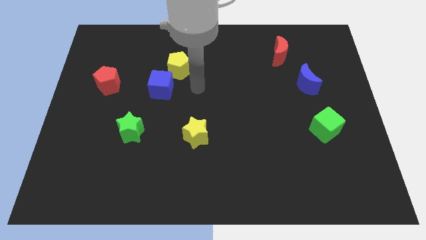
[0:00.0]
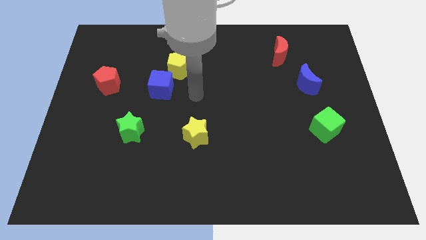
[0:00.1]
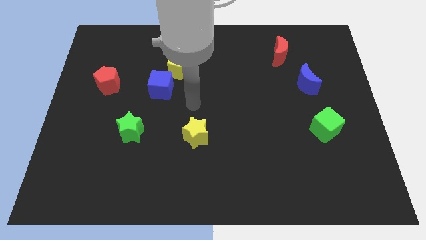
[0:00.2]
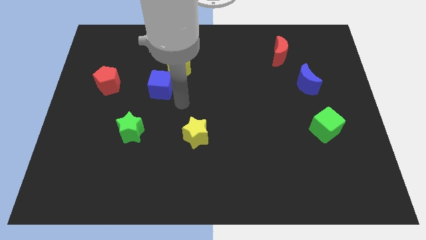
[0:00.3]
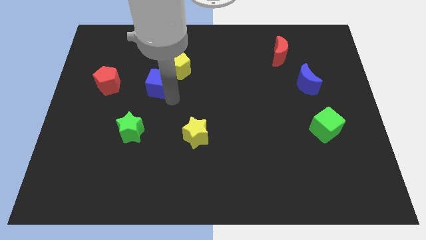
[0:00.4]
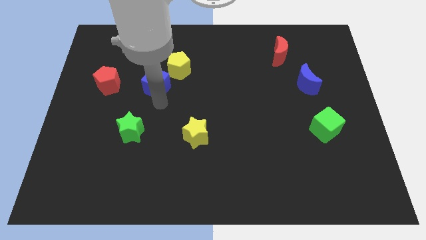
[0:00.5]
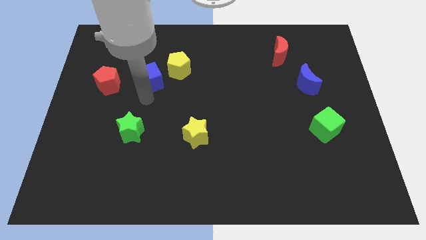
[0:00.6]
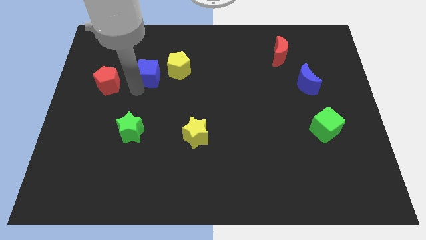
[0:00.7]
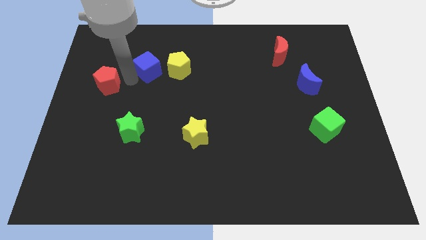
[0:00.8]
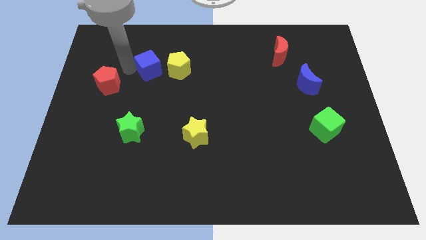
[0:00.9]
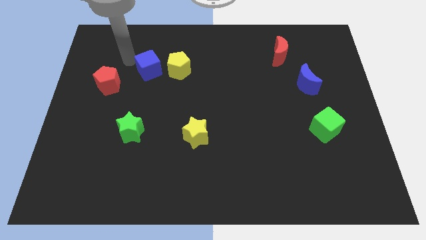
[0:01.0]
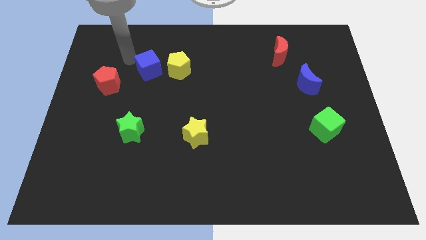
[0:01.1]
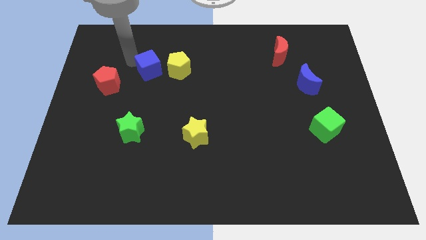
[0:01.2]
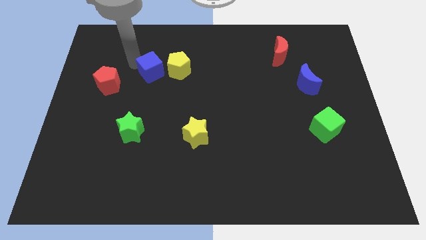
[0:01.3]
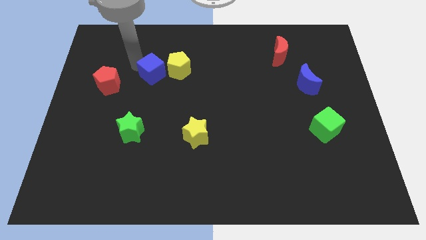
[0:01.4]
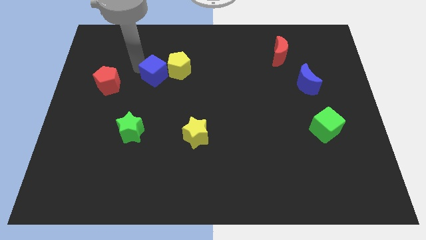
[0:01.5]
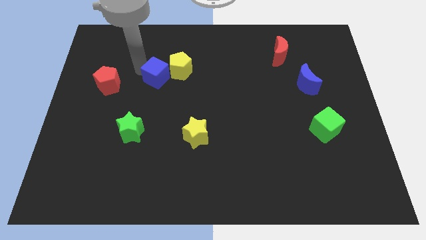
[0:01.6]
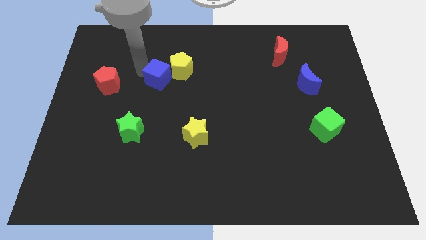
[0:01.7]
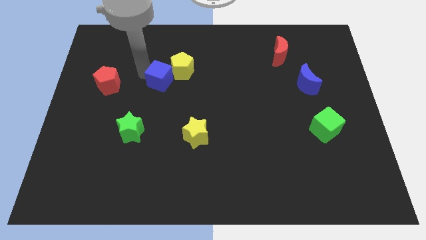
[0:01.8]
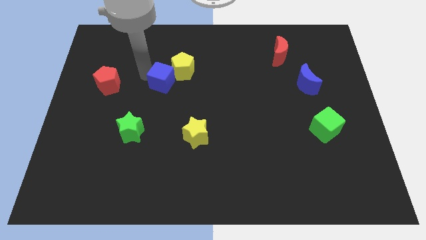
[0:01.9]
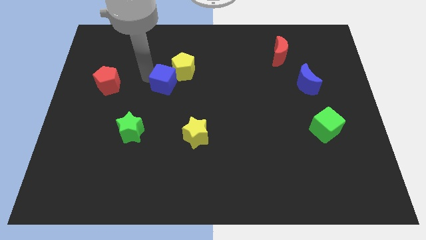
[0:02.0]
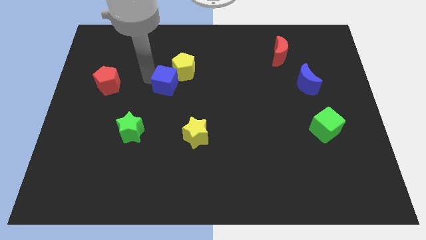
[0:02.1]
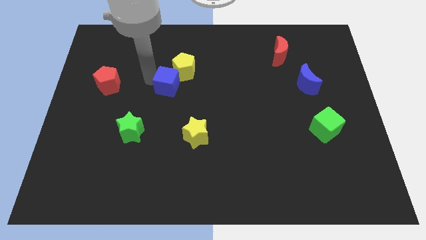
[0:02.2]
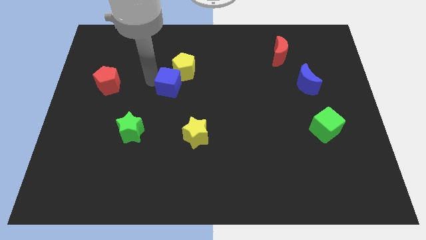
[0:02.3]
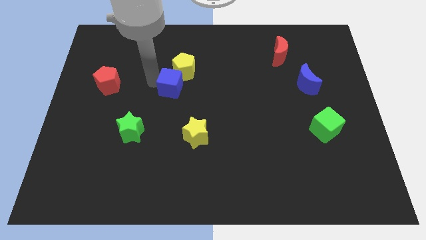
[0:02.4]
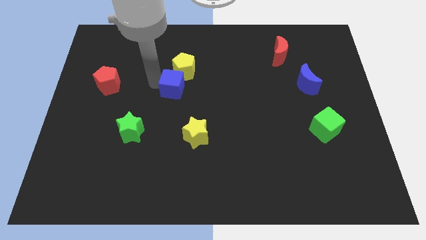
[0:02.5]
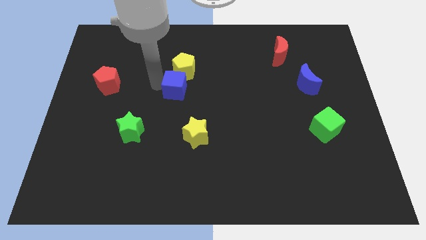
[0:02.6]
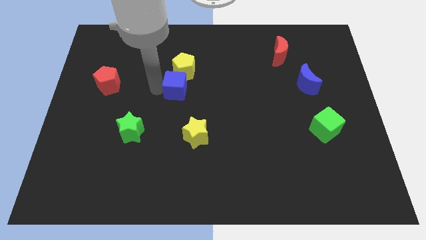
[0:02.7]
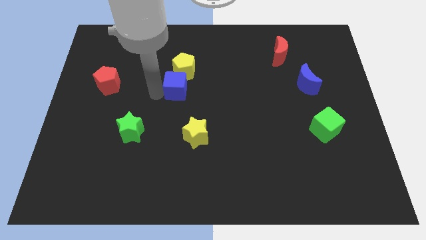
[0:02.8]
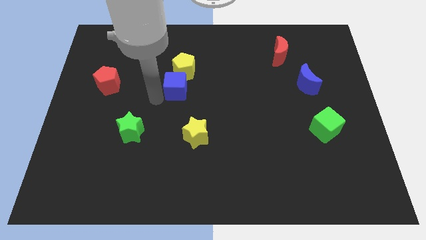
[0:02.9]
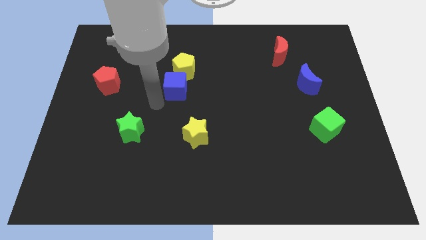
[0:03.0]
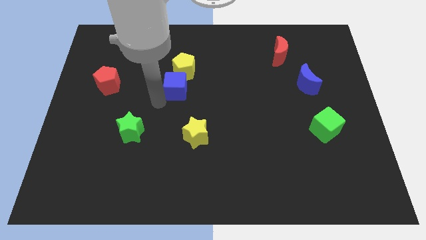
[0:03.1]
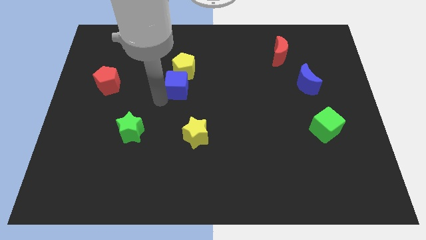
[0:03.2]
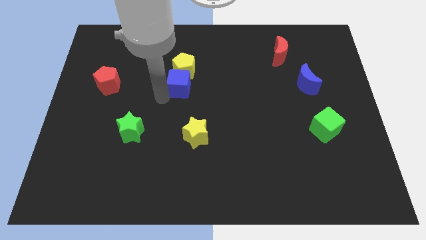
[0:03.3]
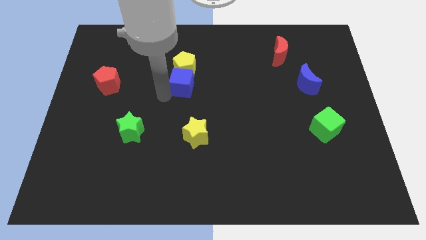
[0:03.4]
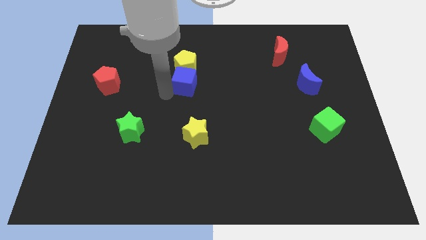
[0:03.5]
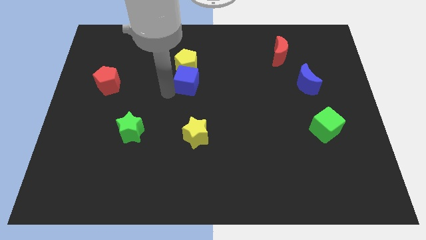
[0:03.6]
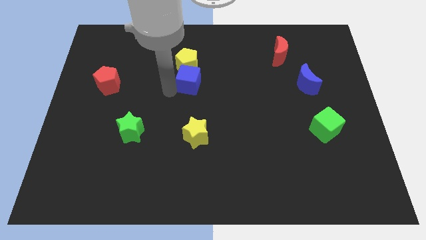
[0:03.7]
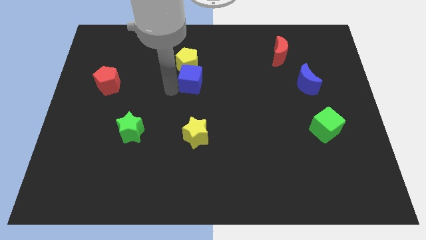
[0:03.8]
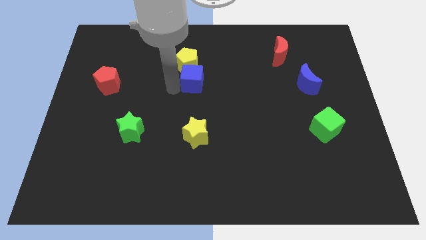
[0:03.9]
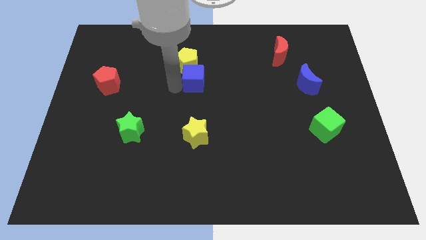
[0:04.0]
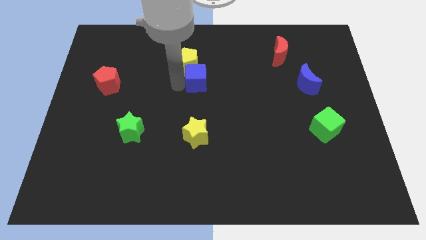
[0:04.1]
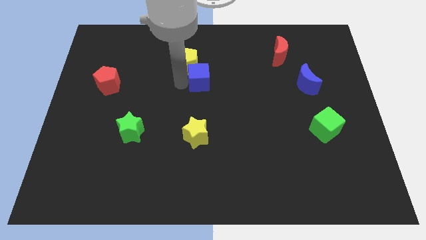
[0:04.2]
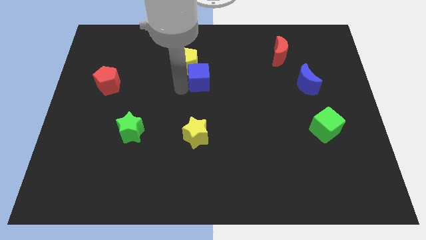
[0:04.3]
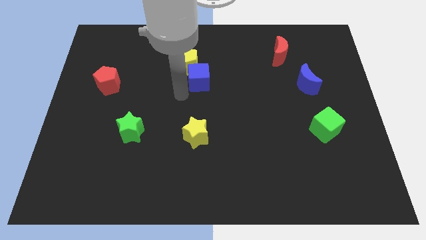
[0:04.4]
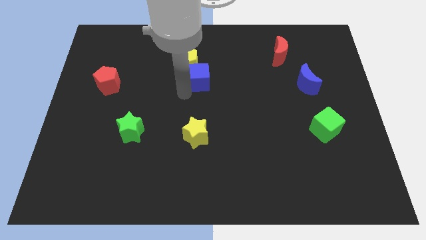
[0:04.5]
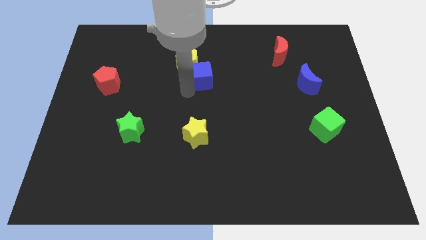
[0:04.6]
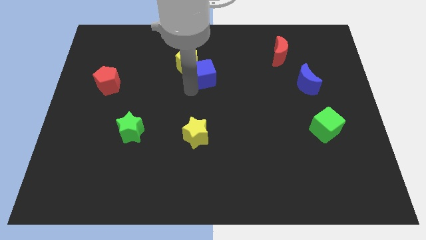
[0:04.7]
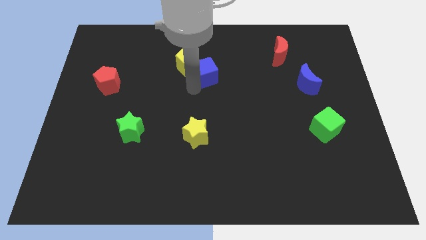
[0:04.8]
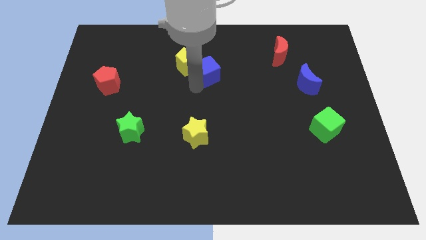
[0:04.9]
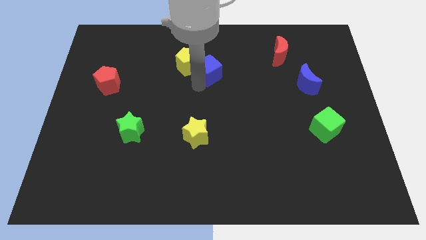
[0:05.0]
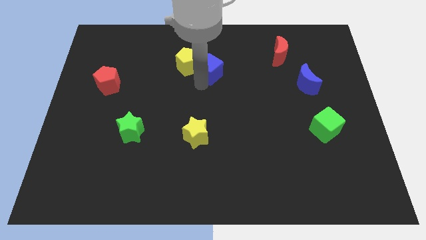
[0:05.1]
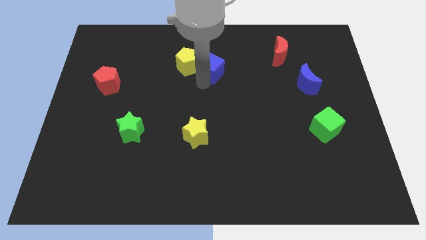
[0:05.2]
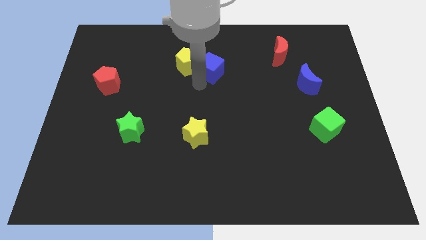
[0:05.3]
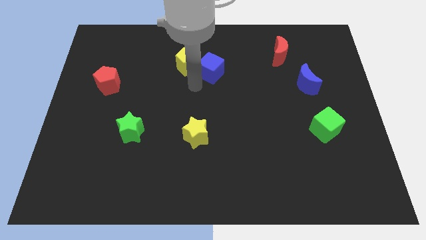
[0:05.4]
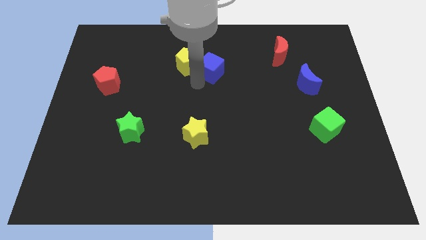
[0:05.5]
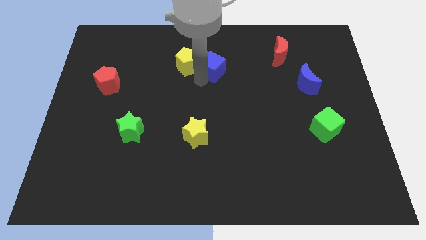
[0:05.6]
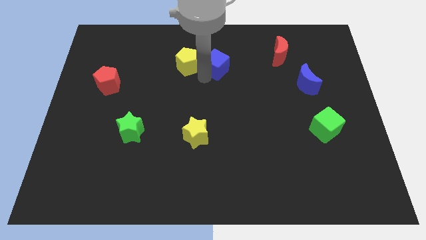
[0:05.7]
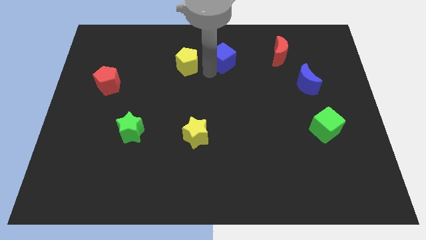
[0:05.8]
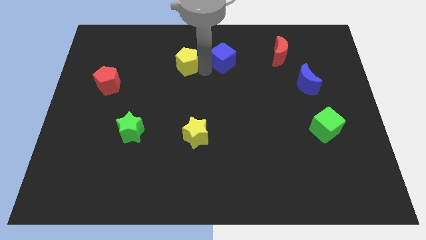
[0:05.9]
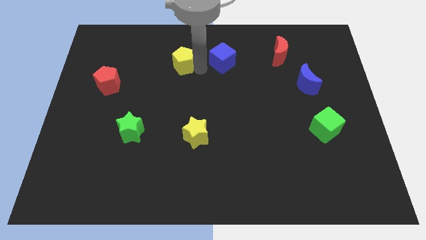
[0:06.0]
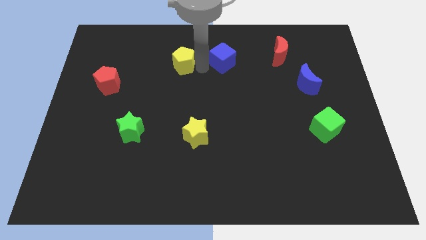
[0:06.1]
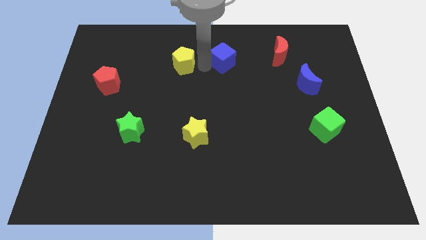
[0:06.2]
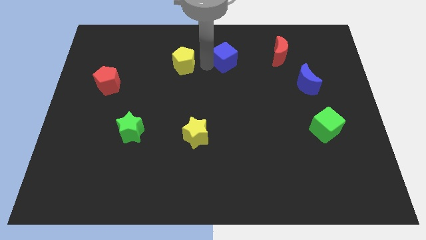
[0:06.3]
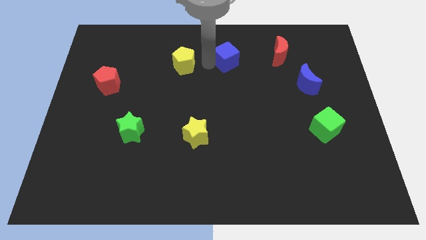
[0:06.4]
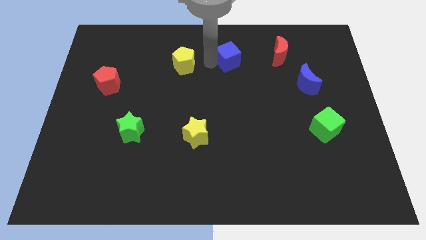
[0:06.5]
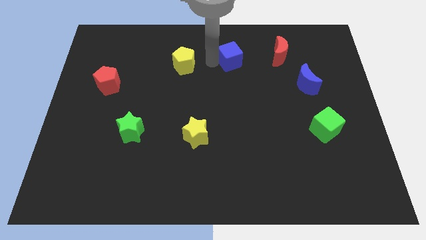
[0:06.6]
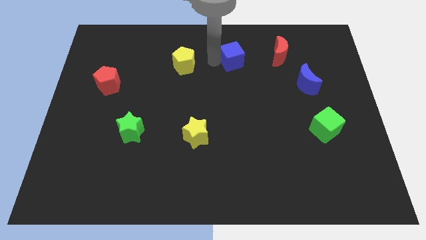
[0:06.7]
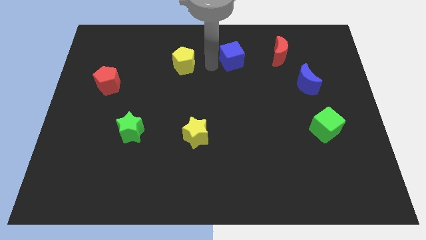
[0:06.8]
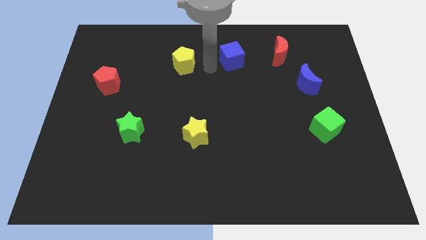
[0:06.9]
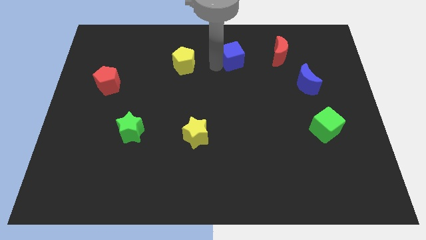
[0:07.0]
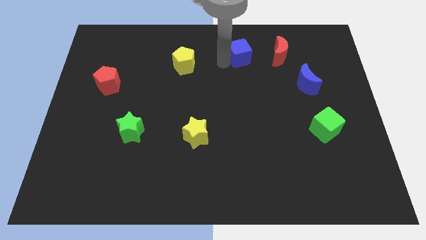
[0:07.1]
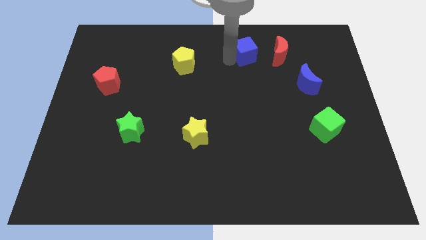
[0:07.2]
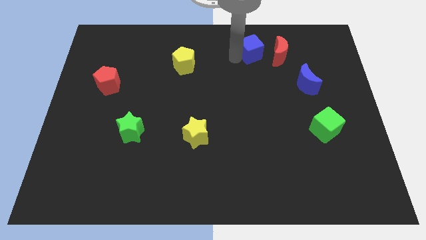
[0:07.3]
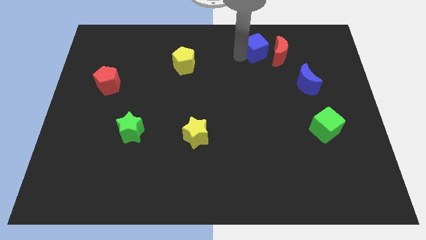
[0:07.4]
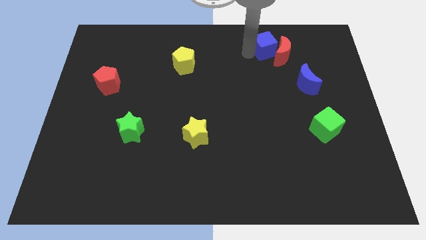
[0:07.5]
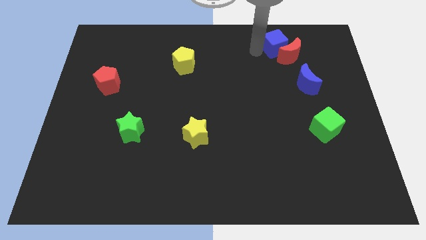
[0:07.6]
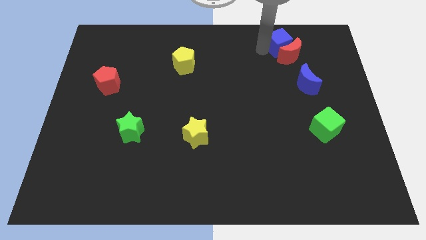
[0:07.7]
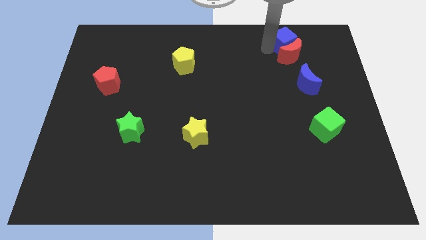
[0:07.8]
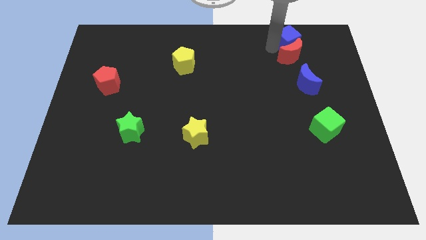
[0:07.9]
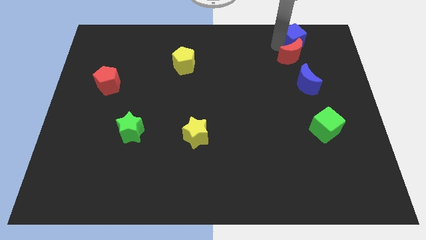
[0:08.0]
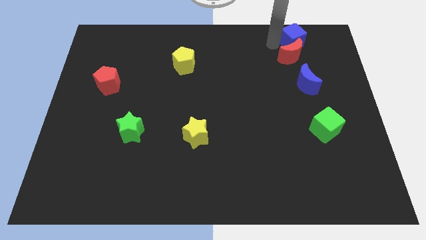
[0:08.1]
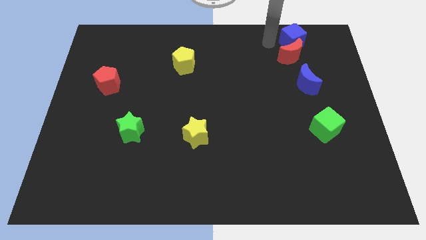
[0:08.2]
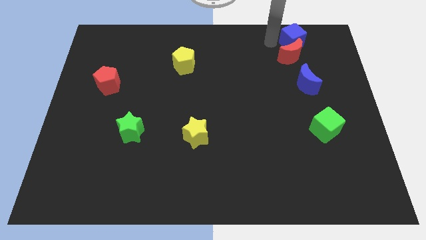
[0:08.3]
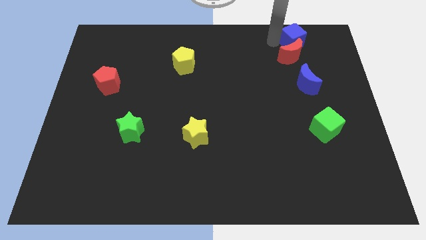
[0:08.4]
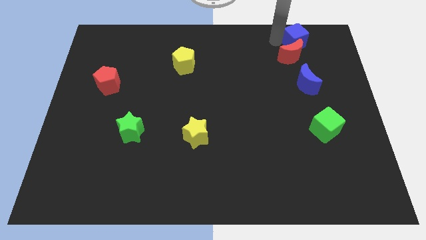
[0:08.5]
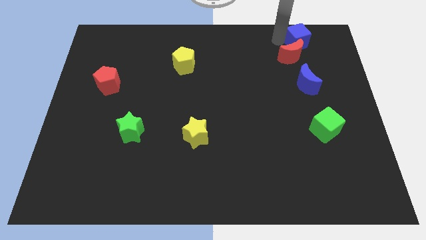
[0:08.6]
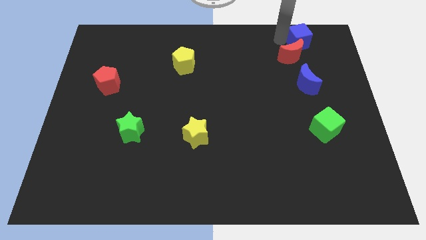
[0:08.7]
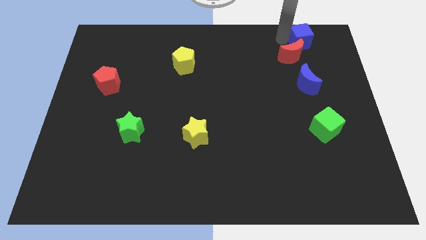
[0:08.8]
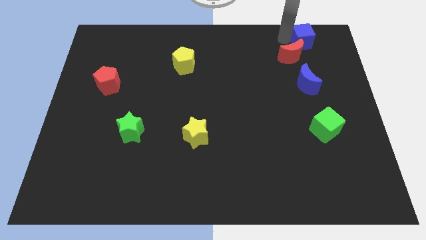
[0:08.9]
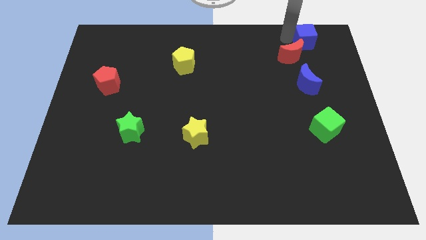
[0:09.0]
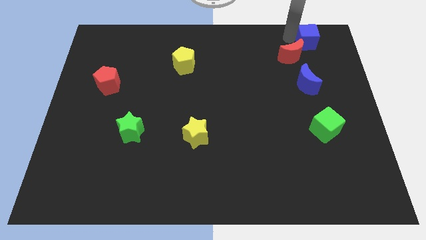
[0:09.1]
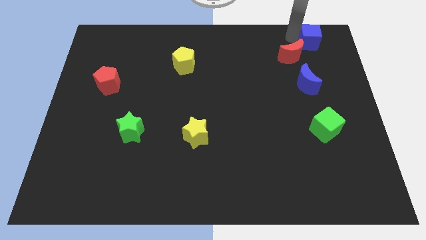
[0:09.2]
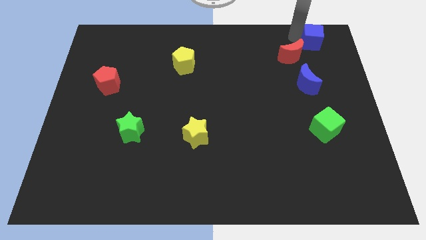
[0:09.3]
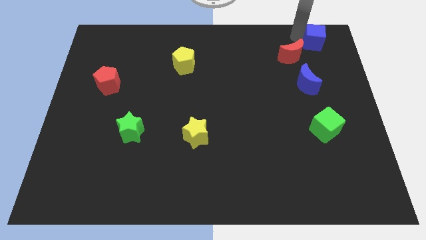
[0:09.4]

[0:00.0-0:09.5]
put the blue cube to the top right of the board
